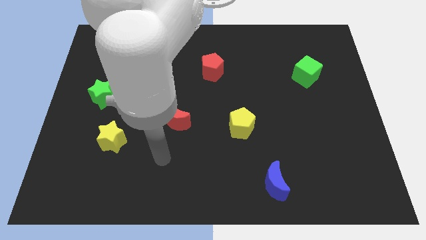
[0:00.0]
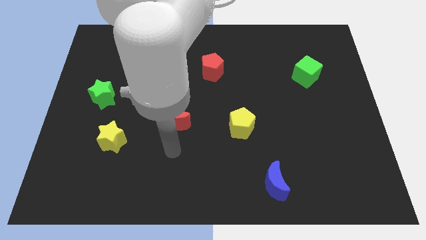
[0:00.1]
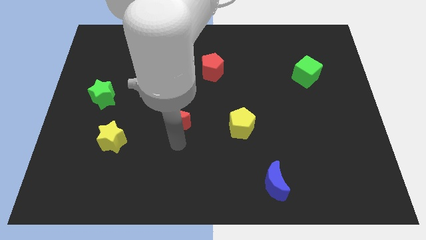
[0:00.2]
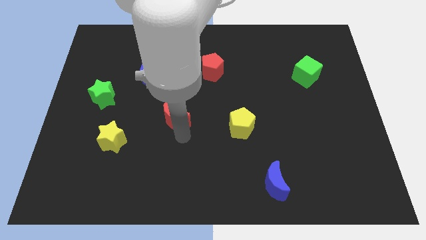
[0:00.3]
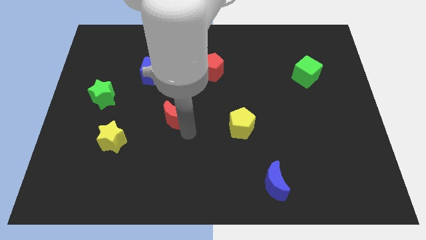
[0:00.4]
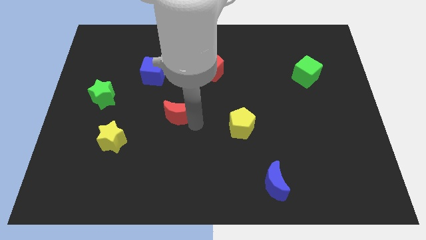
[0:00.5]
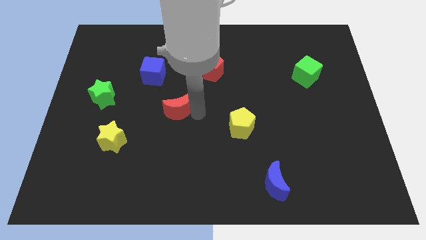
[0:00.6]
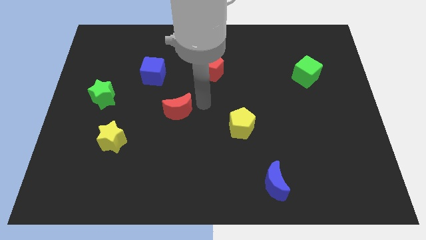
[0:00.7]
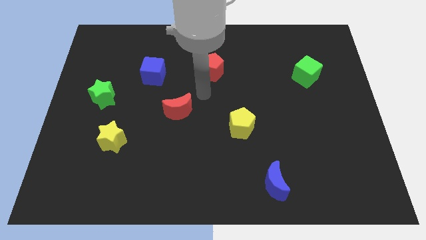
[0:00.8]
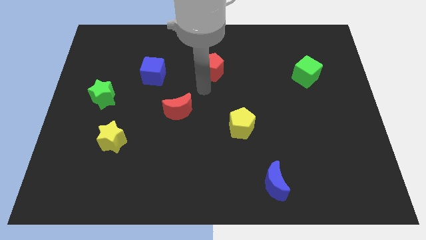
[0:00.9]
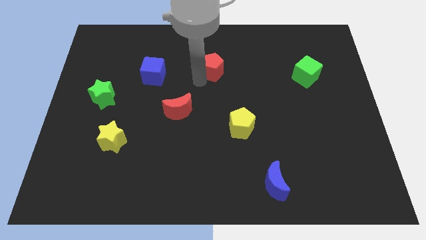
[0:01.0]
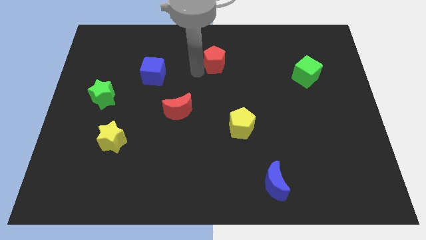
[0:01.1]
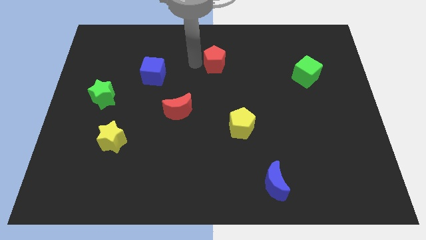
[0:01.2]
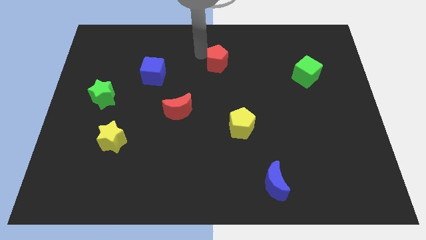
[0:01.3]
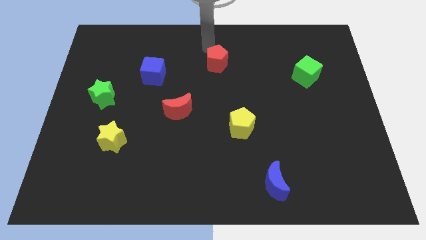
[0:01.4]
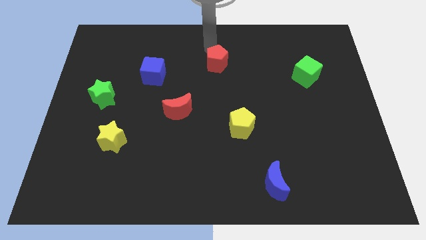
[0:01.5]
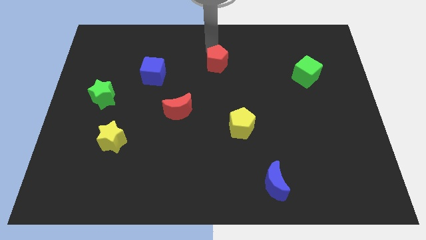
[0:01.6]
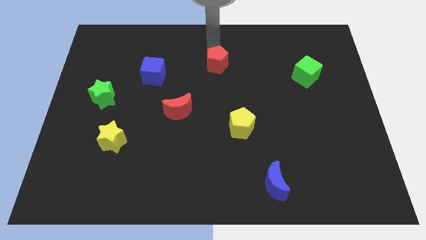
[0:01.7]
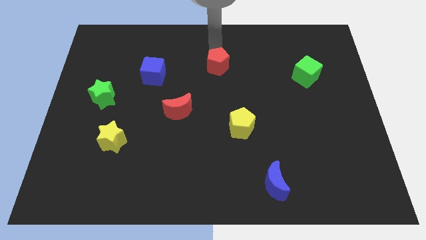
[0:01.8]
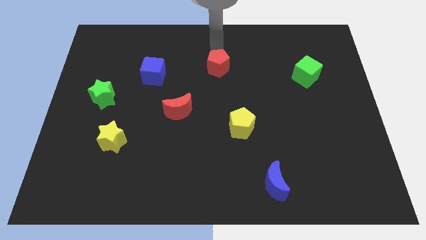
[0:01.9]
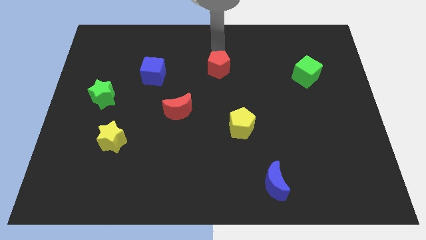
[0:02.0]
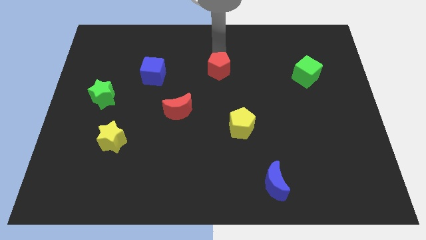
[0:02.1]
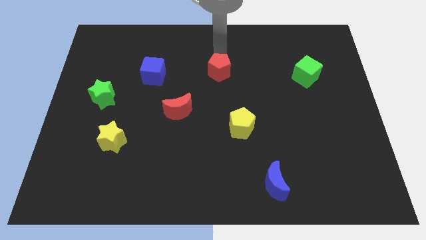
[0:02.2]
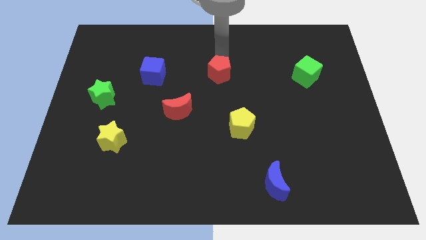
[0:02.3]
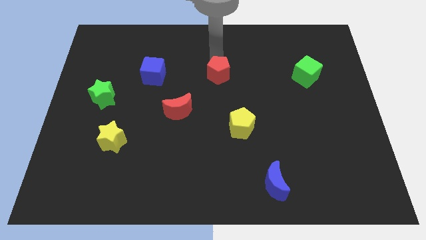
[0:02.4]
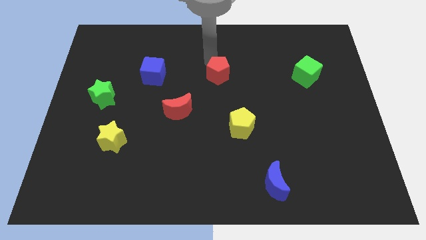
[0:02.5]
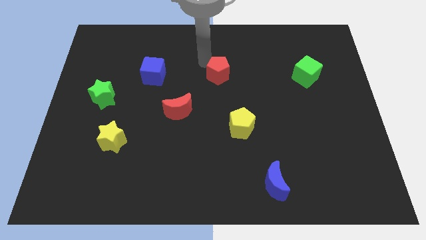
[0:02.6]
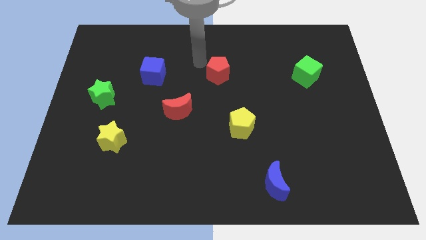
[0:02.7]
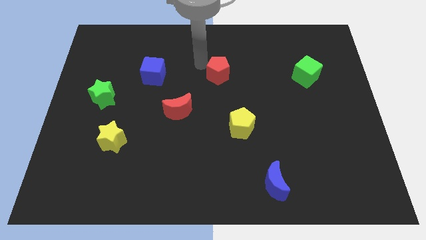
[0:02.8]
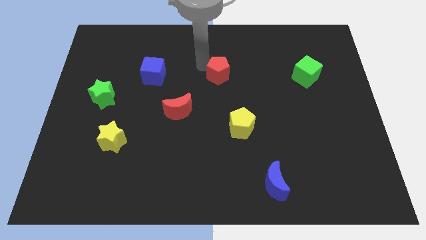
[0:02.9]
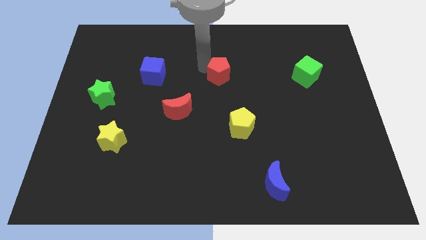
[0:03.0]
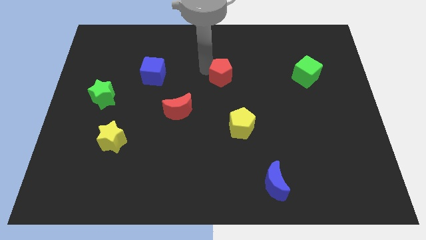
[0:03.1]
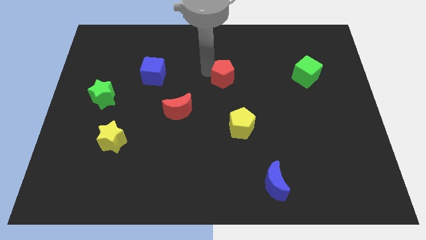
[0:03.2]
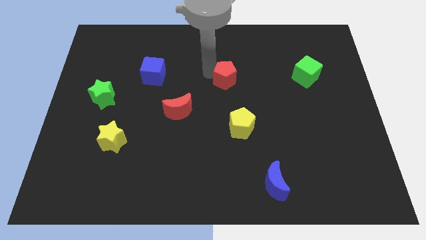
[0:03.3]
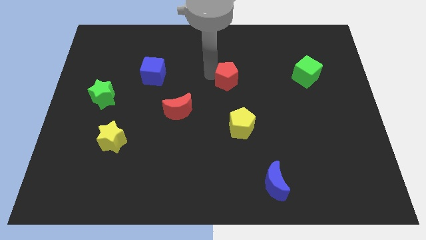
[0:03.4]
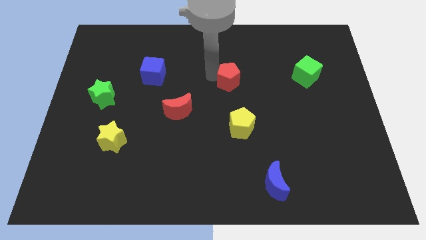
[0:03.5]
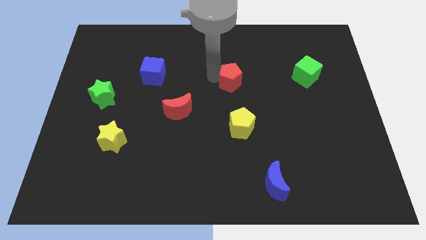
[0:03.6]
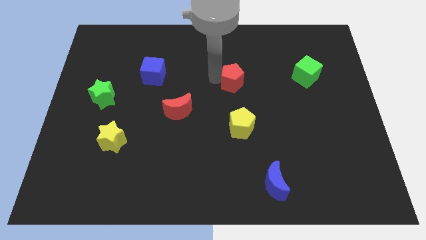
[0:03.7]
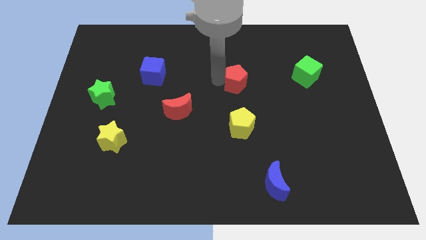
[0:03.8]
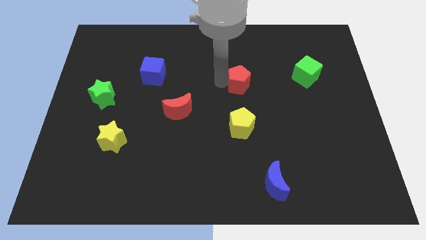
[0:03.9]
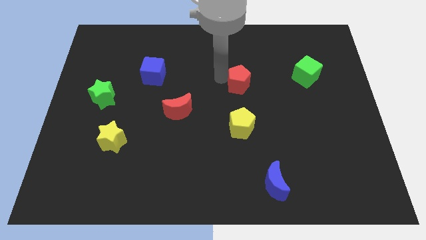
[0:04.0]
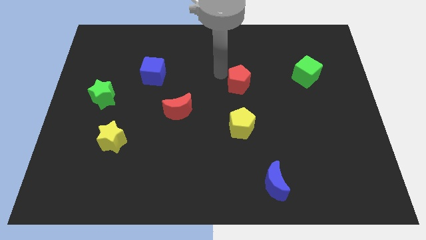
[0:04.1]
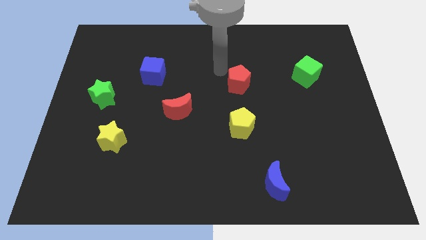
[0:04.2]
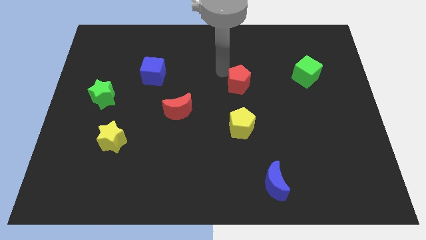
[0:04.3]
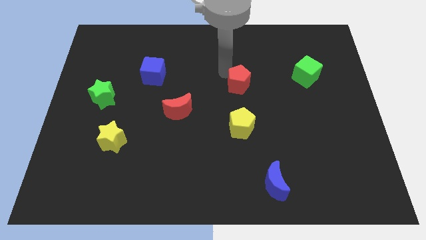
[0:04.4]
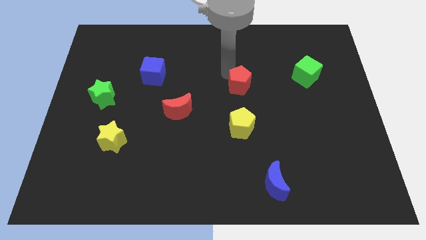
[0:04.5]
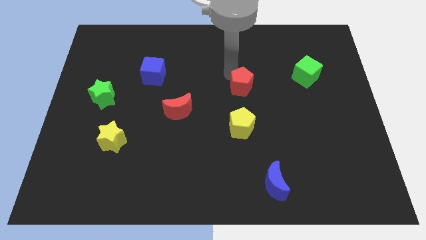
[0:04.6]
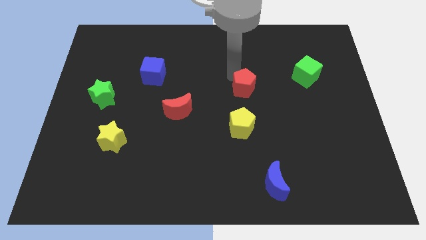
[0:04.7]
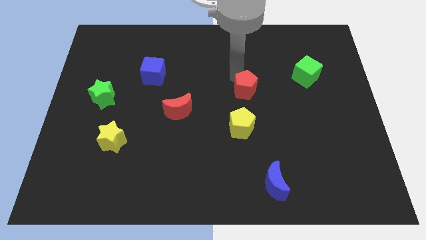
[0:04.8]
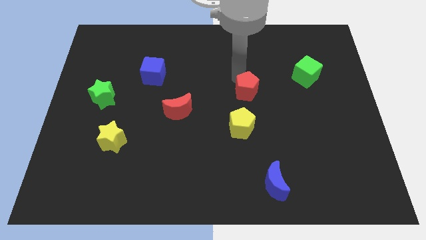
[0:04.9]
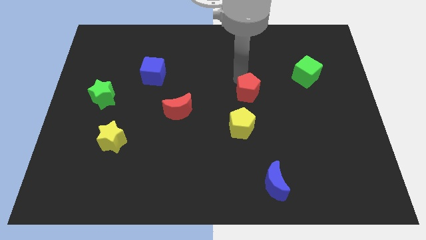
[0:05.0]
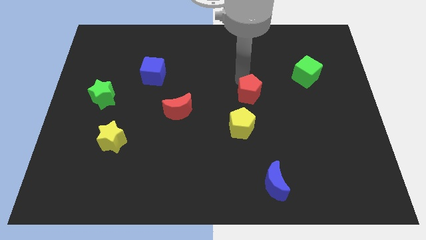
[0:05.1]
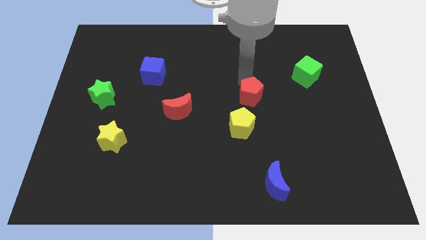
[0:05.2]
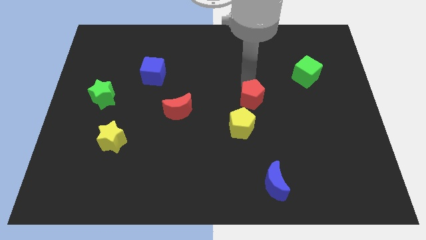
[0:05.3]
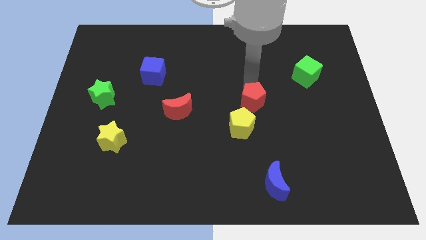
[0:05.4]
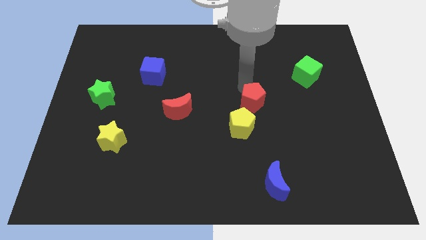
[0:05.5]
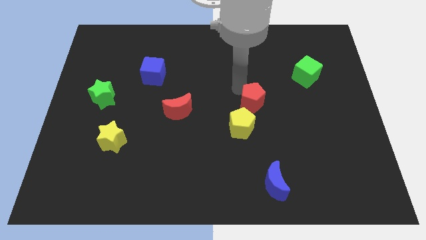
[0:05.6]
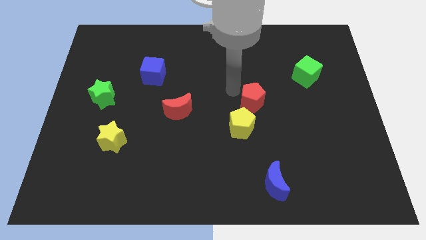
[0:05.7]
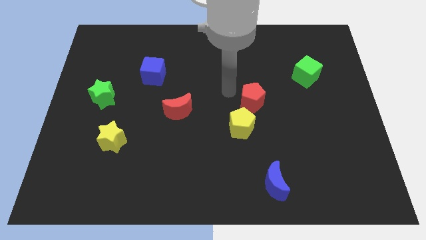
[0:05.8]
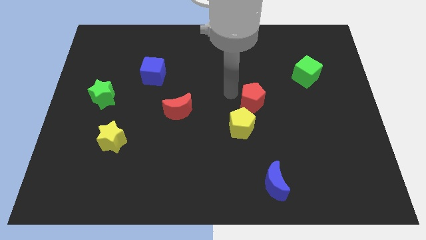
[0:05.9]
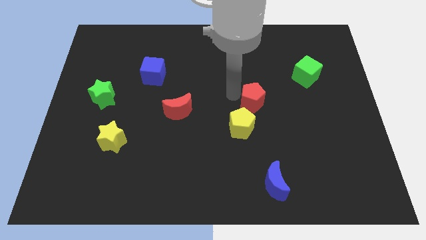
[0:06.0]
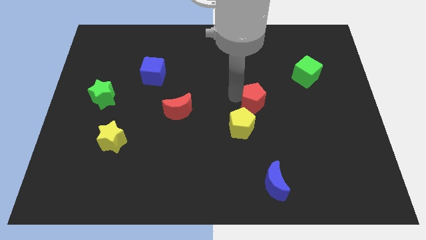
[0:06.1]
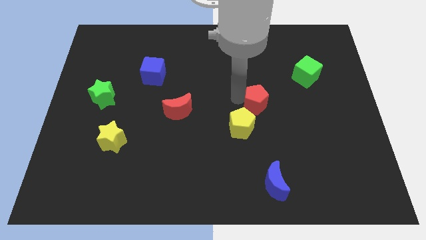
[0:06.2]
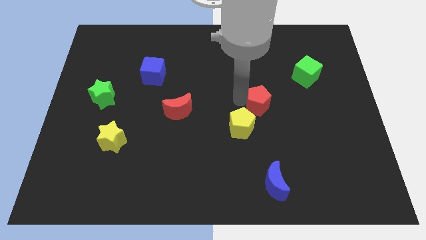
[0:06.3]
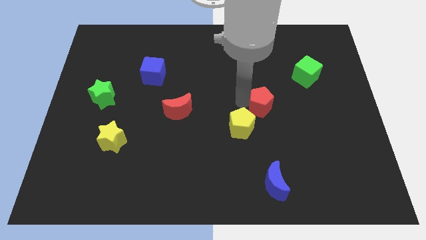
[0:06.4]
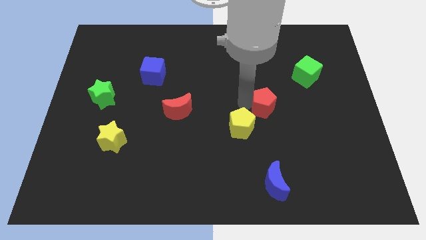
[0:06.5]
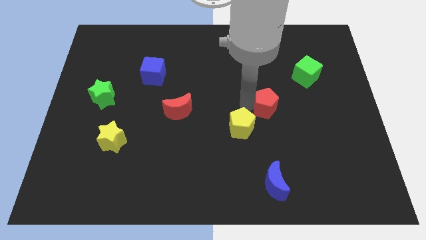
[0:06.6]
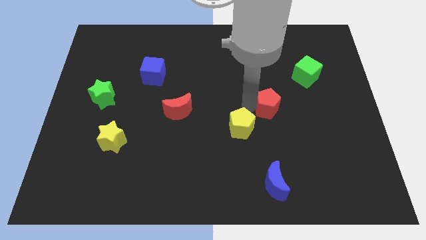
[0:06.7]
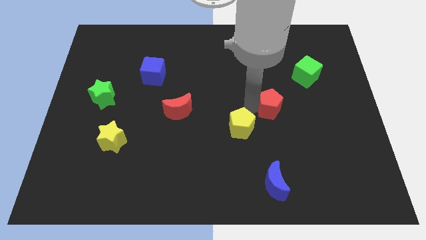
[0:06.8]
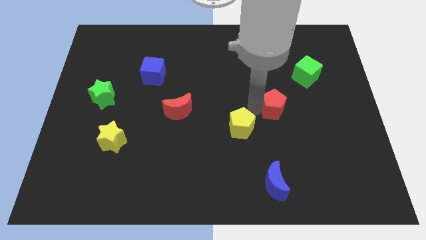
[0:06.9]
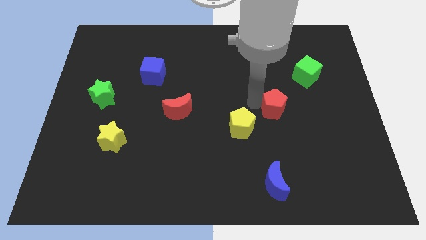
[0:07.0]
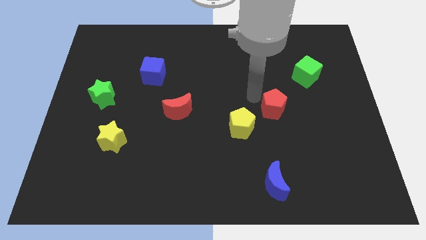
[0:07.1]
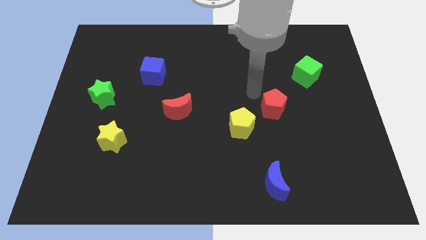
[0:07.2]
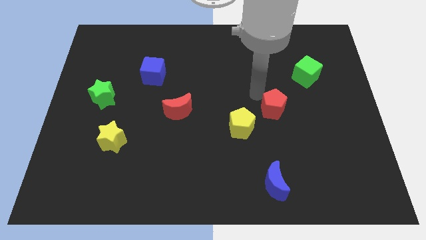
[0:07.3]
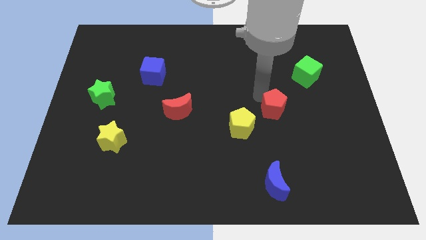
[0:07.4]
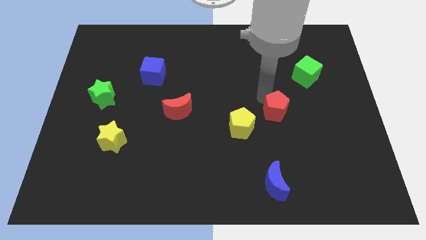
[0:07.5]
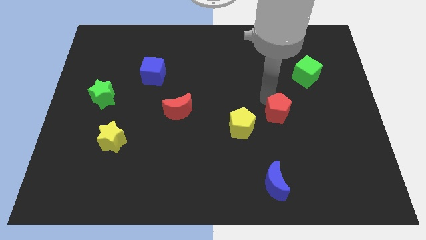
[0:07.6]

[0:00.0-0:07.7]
push the red pentagon down and then to the right
